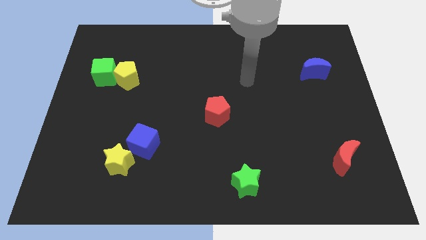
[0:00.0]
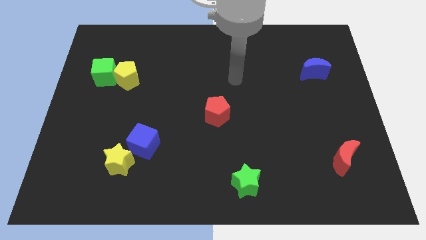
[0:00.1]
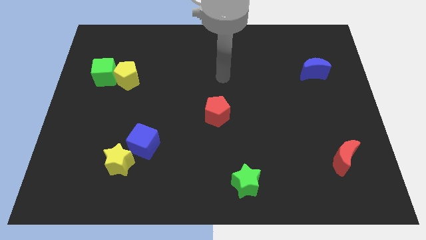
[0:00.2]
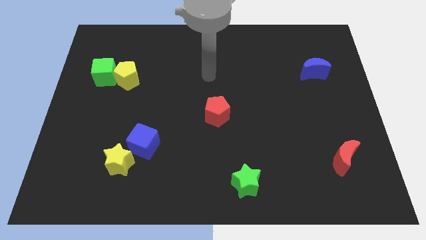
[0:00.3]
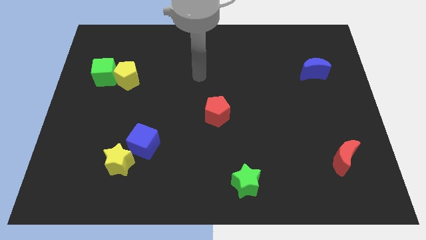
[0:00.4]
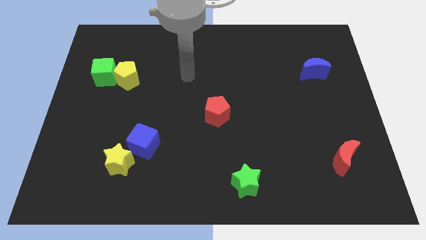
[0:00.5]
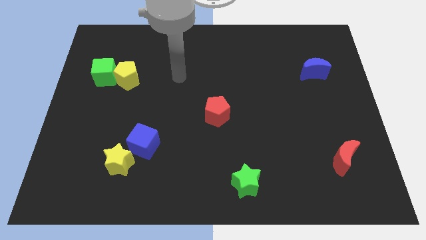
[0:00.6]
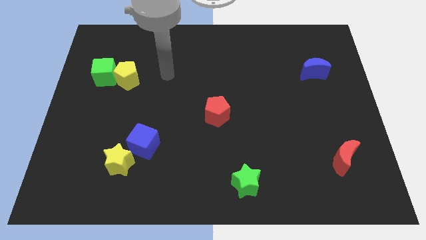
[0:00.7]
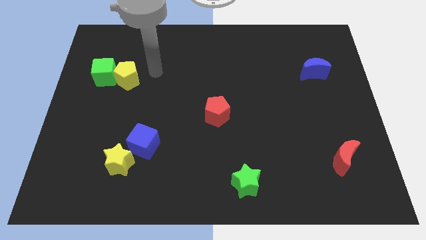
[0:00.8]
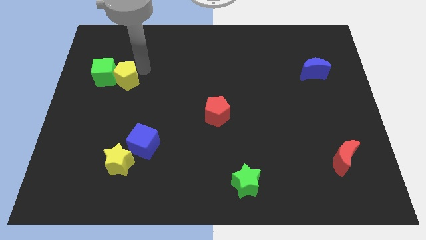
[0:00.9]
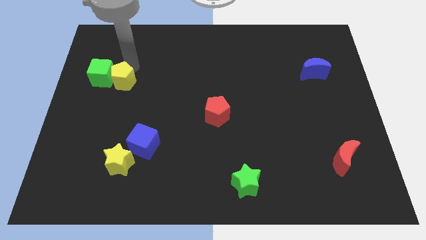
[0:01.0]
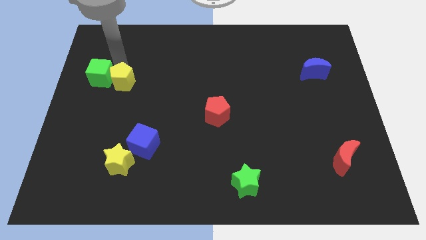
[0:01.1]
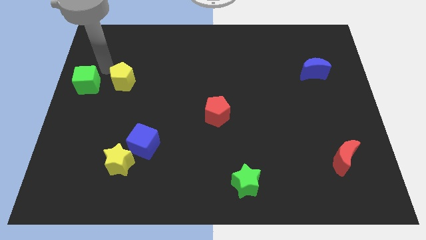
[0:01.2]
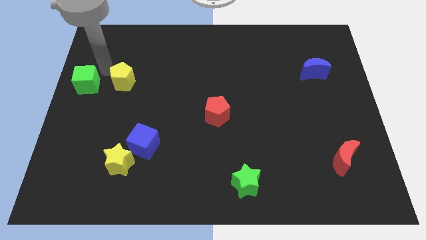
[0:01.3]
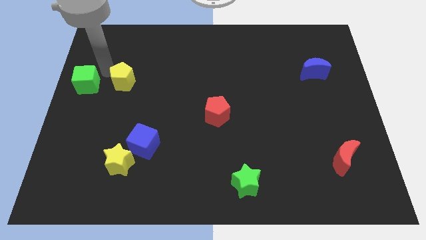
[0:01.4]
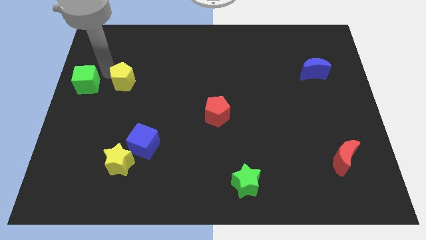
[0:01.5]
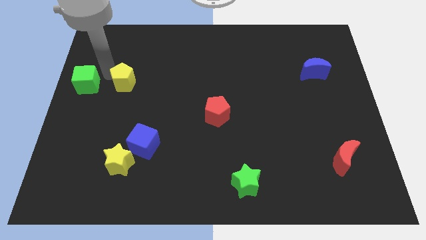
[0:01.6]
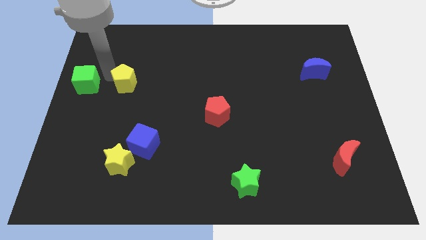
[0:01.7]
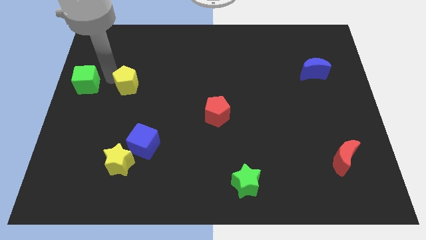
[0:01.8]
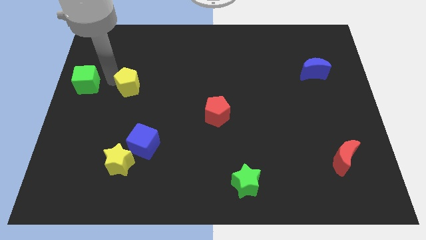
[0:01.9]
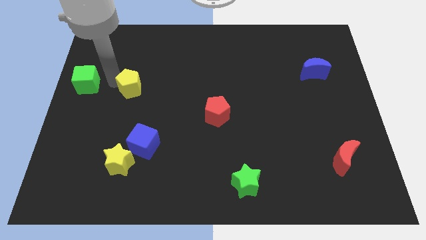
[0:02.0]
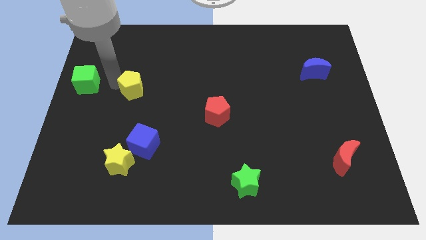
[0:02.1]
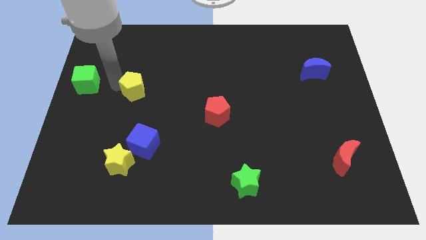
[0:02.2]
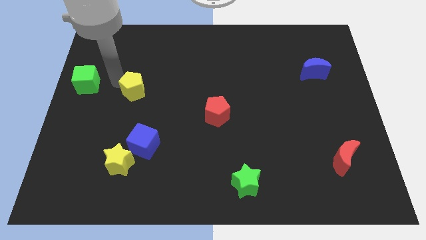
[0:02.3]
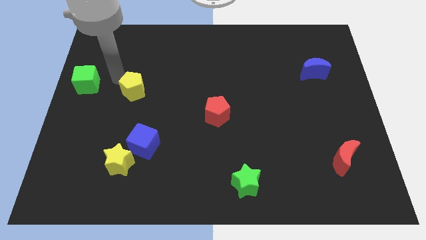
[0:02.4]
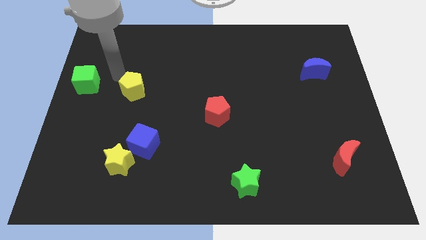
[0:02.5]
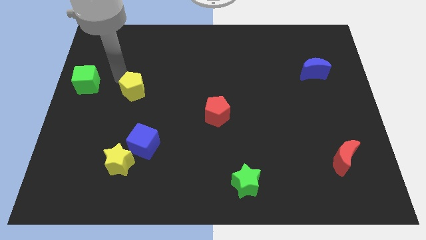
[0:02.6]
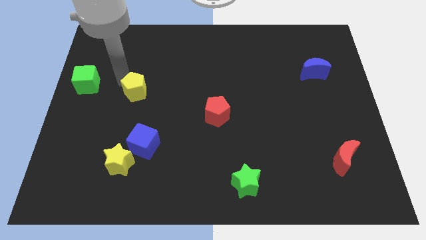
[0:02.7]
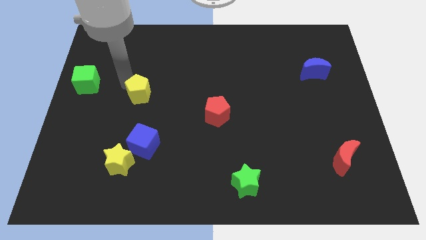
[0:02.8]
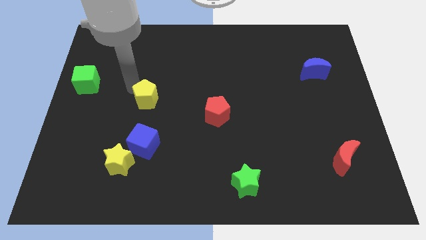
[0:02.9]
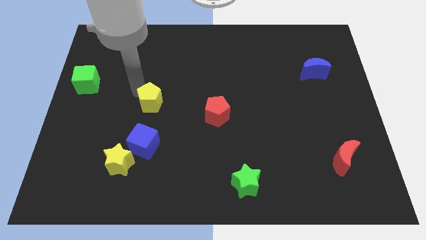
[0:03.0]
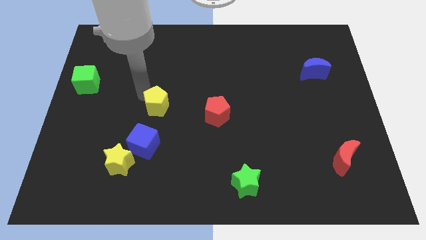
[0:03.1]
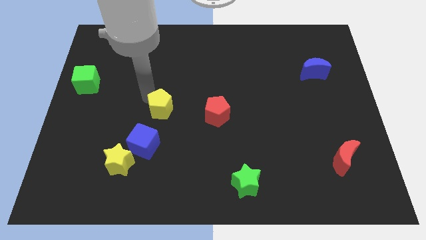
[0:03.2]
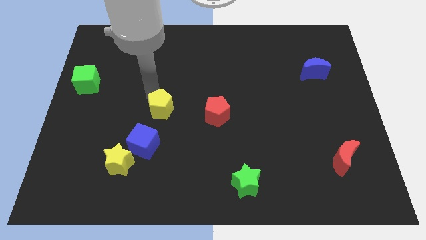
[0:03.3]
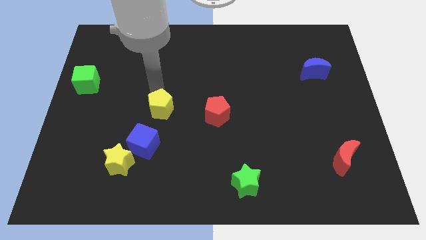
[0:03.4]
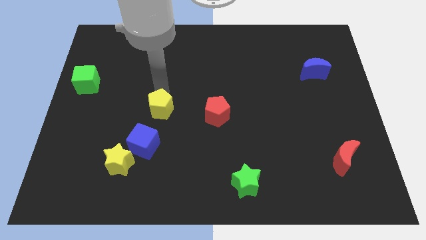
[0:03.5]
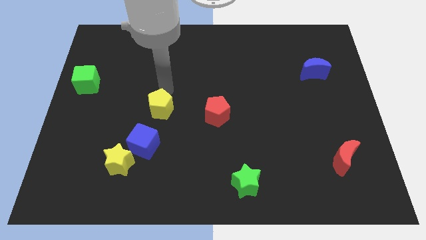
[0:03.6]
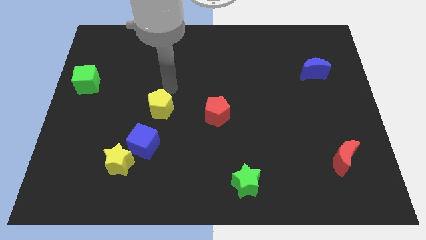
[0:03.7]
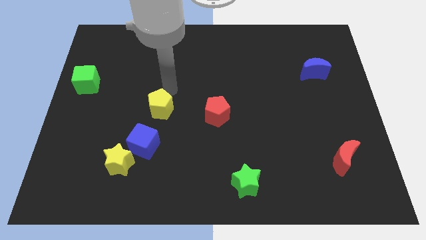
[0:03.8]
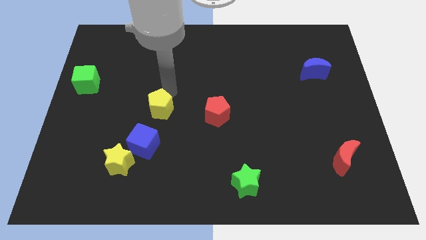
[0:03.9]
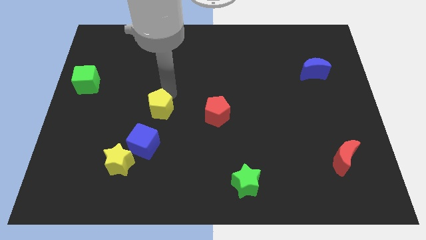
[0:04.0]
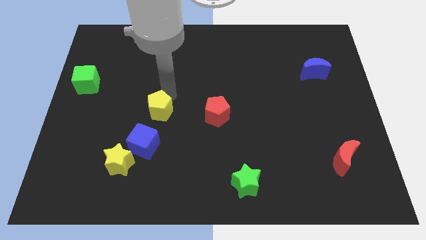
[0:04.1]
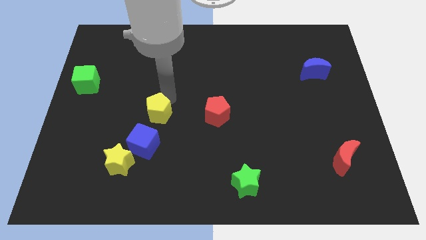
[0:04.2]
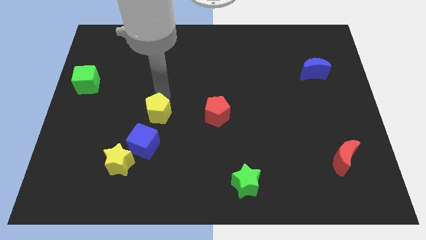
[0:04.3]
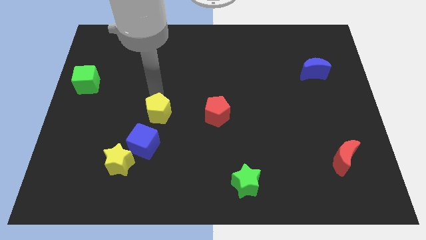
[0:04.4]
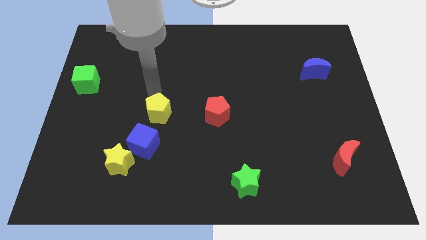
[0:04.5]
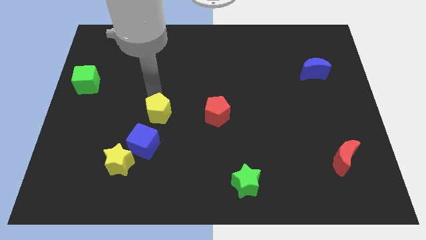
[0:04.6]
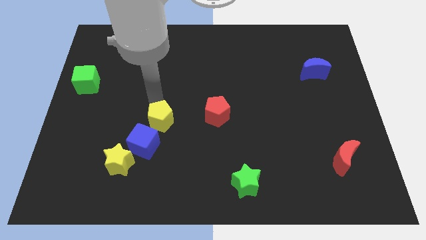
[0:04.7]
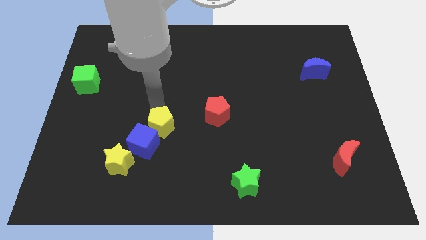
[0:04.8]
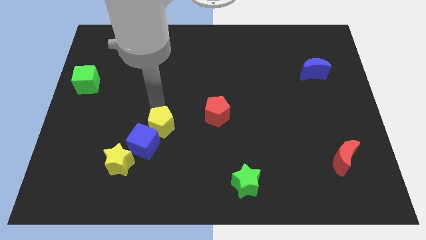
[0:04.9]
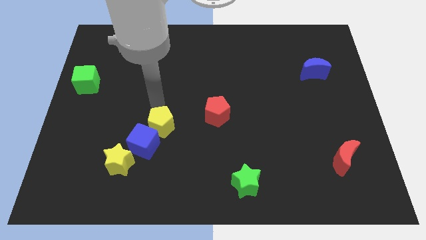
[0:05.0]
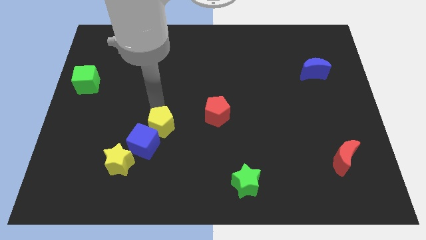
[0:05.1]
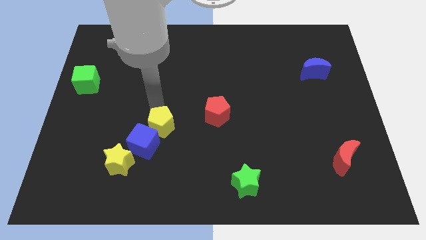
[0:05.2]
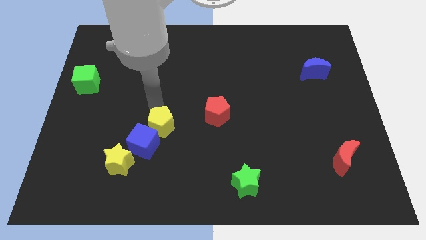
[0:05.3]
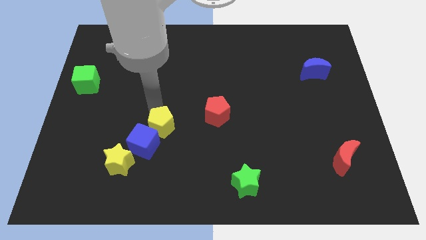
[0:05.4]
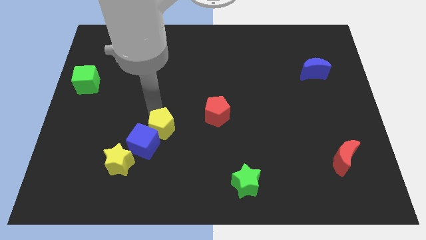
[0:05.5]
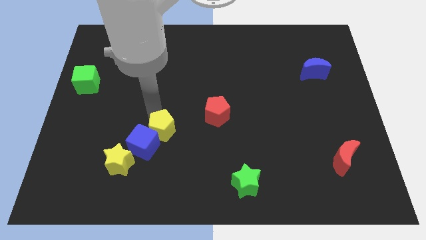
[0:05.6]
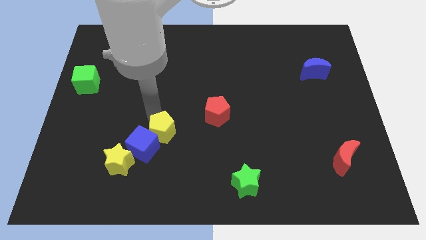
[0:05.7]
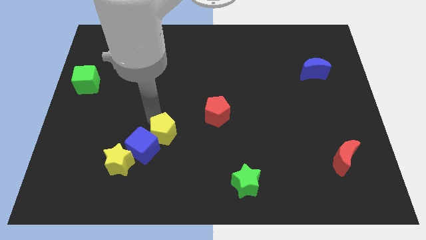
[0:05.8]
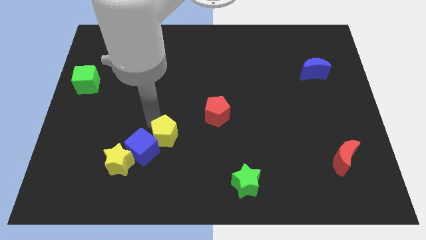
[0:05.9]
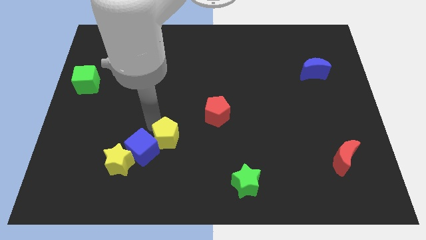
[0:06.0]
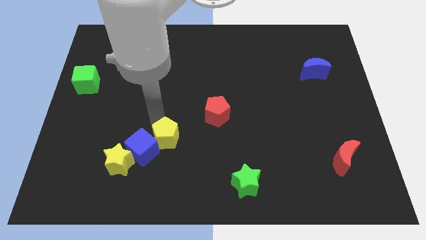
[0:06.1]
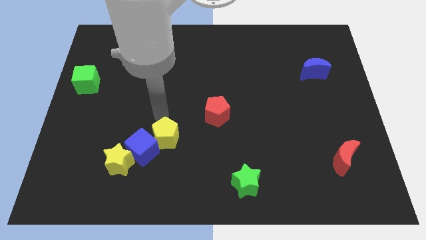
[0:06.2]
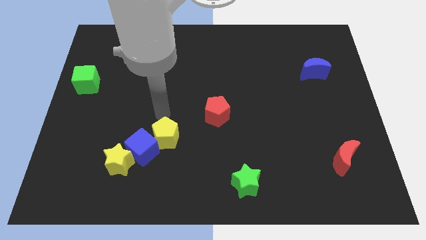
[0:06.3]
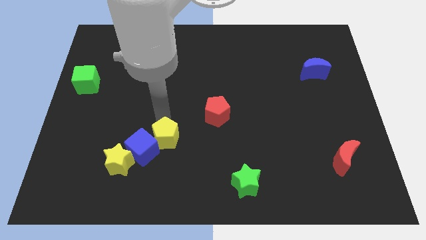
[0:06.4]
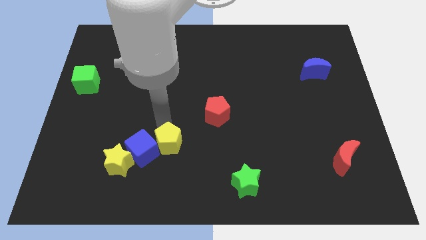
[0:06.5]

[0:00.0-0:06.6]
put the yellow pentagon to the right side of the yellow star

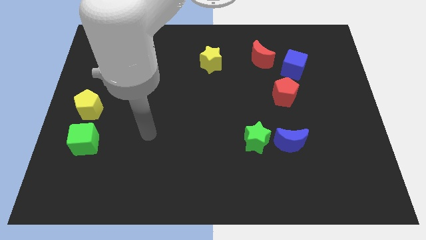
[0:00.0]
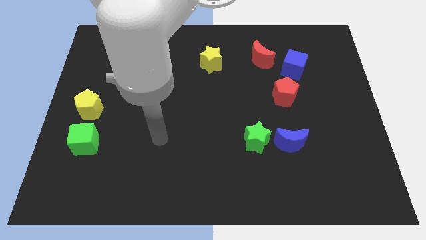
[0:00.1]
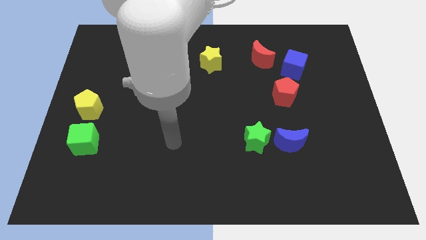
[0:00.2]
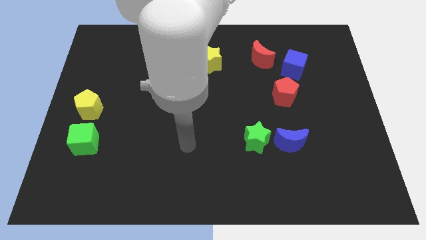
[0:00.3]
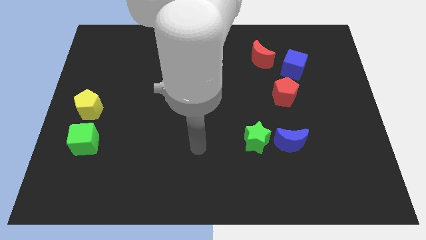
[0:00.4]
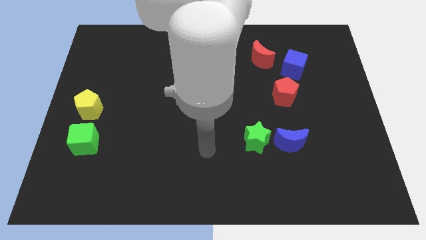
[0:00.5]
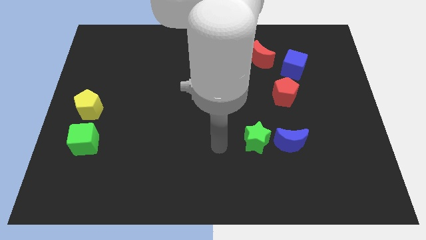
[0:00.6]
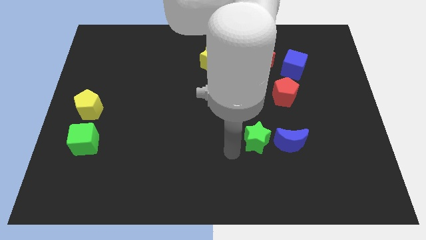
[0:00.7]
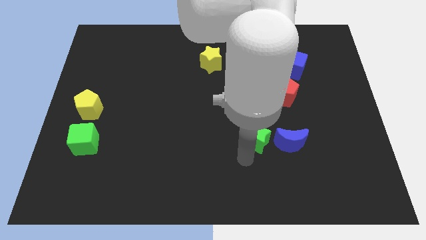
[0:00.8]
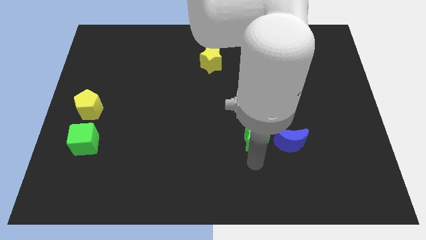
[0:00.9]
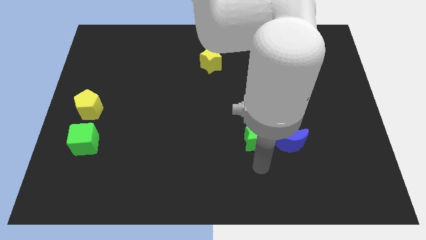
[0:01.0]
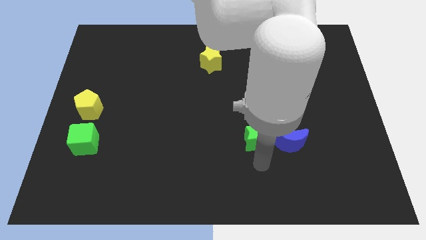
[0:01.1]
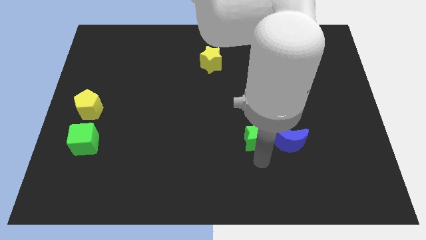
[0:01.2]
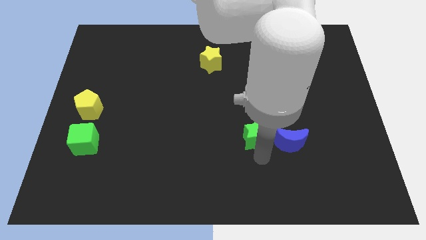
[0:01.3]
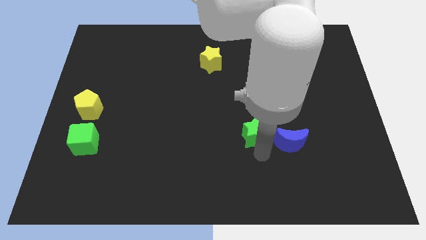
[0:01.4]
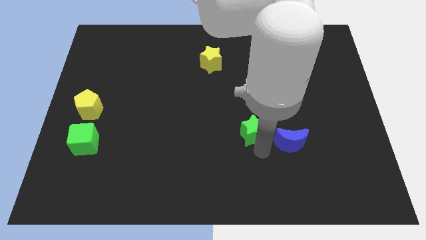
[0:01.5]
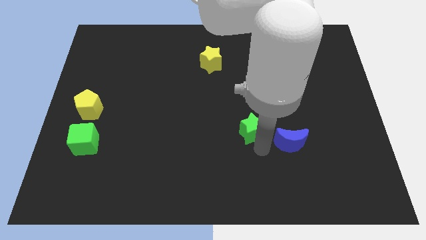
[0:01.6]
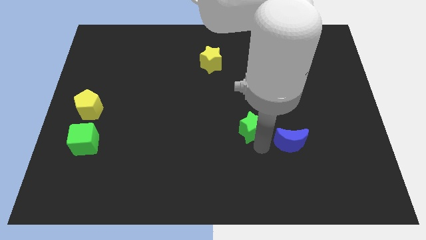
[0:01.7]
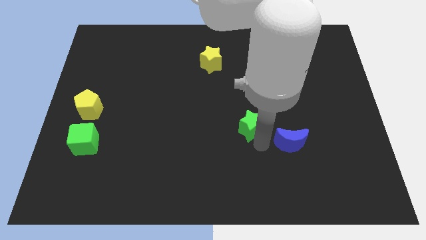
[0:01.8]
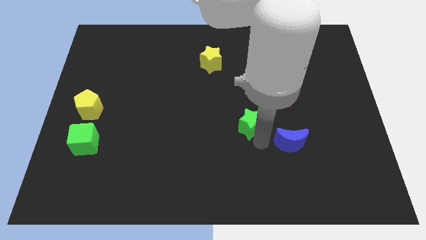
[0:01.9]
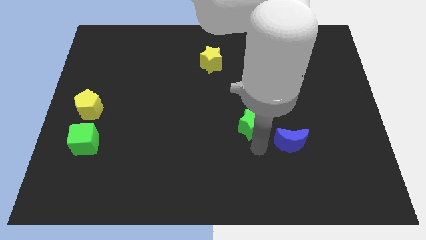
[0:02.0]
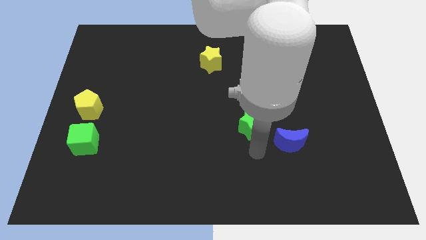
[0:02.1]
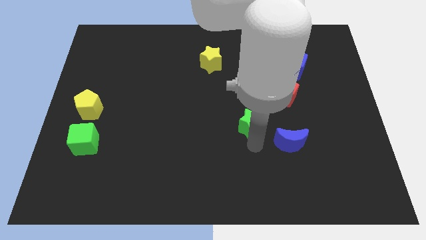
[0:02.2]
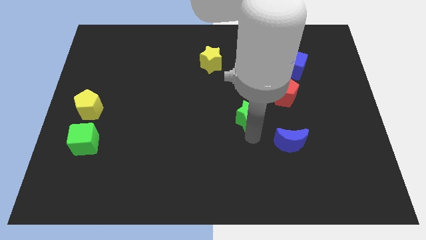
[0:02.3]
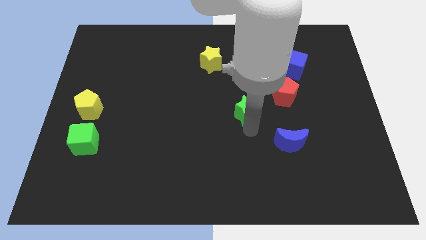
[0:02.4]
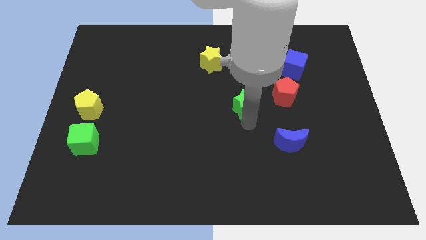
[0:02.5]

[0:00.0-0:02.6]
move the green star left of the red pentagon
